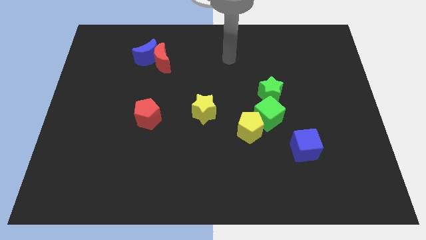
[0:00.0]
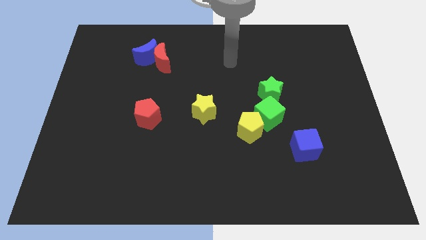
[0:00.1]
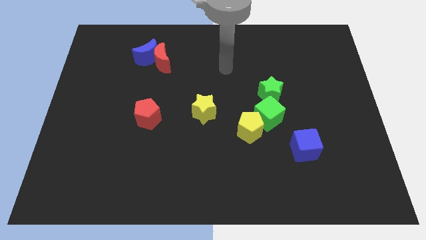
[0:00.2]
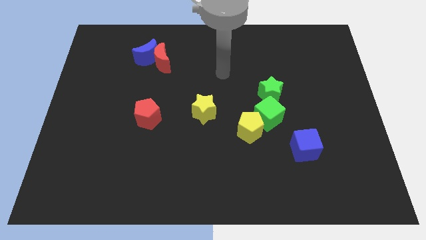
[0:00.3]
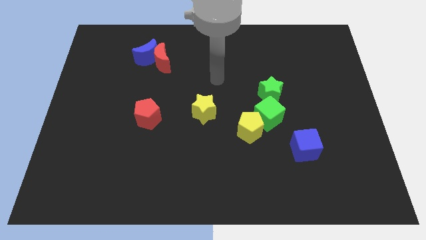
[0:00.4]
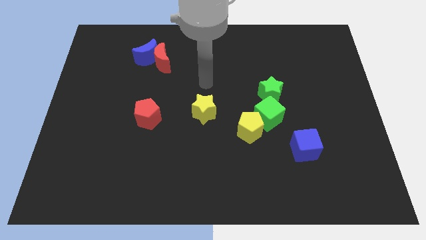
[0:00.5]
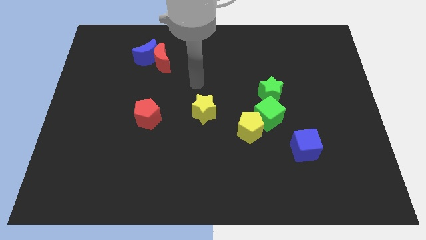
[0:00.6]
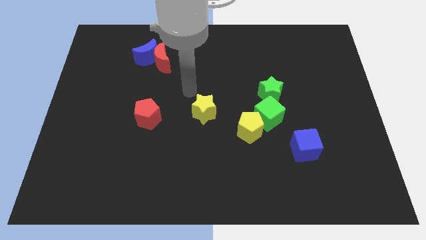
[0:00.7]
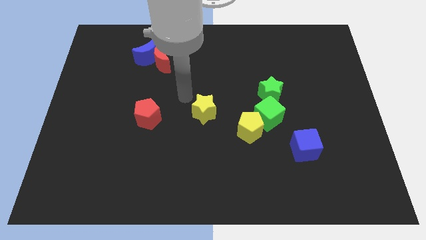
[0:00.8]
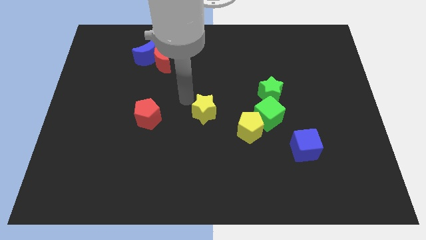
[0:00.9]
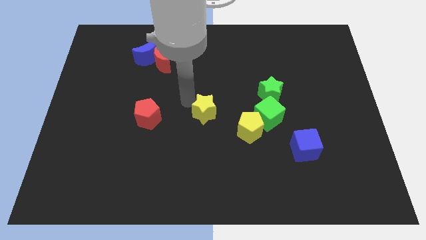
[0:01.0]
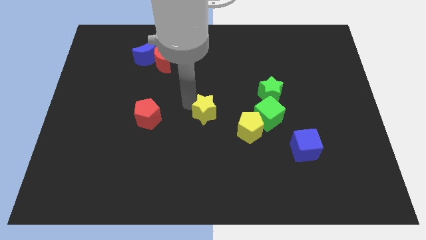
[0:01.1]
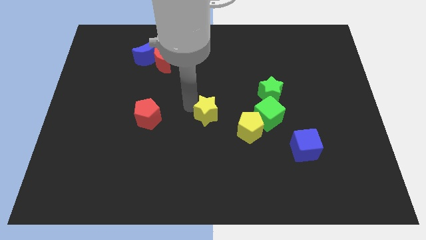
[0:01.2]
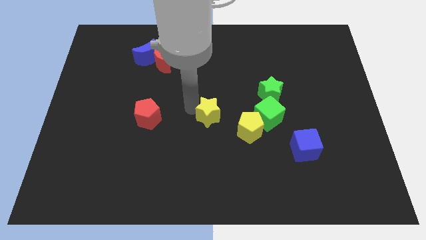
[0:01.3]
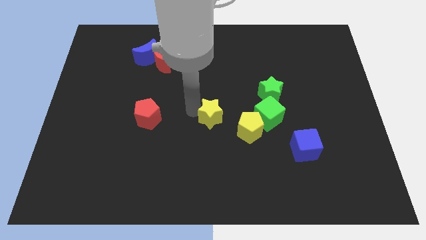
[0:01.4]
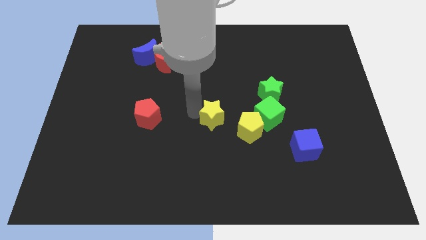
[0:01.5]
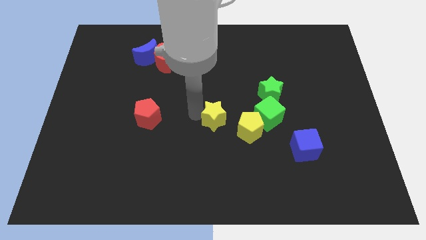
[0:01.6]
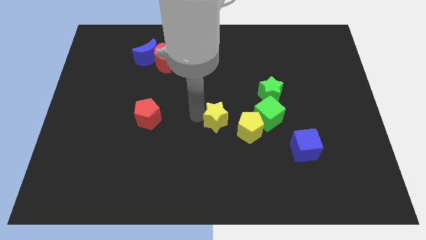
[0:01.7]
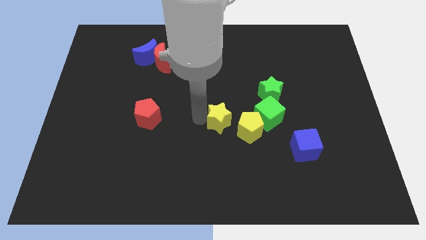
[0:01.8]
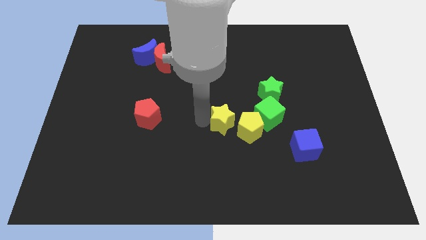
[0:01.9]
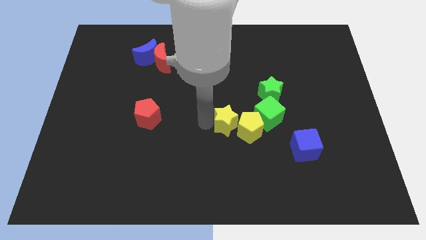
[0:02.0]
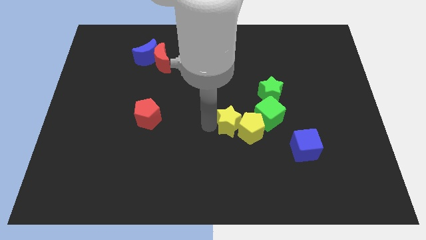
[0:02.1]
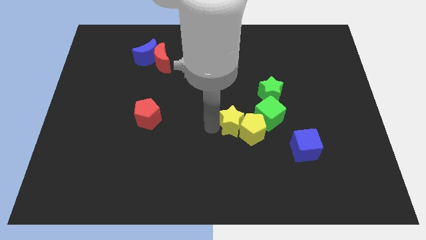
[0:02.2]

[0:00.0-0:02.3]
slightly push the yellow star down and then to the right

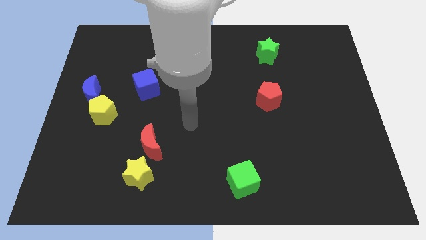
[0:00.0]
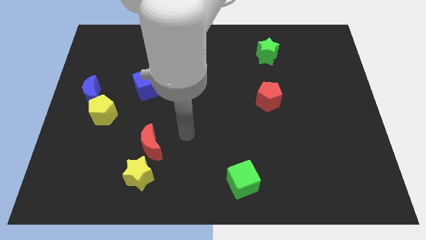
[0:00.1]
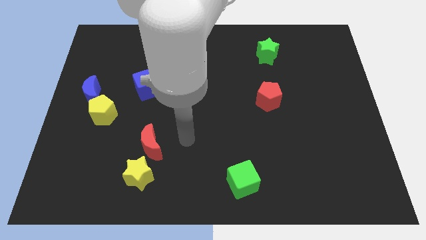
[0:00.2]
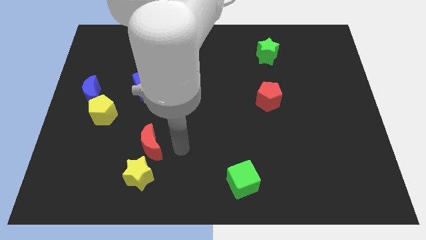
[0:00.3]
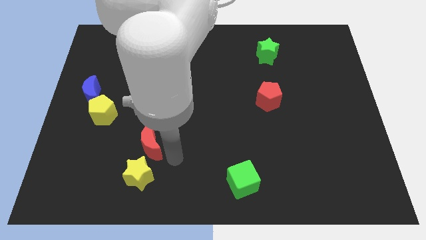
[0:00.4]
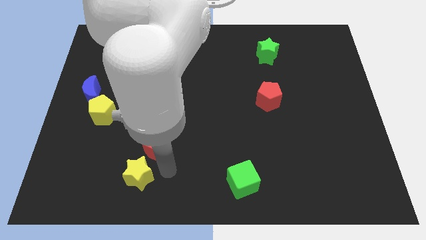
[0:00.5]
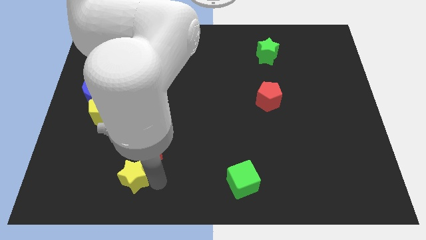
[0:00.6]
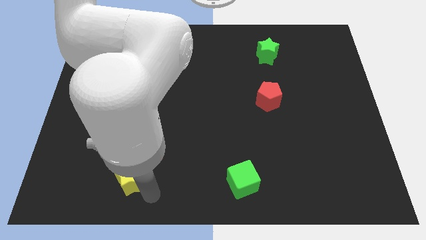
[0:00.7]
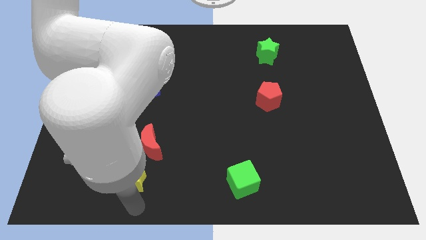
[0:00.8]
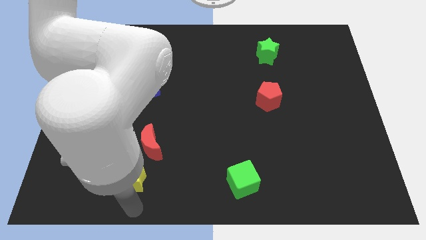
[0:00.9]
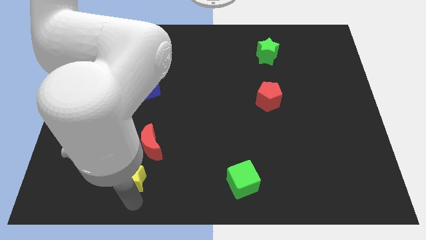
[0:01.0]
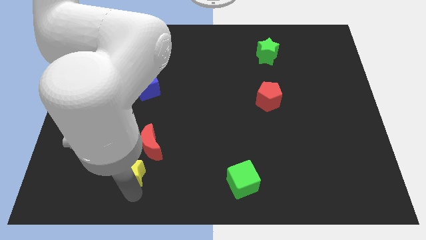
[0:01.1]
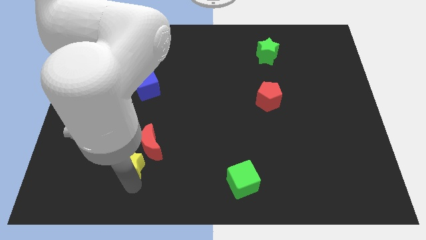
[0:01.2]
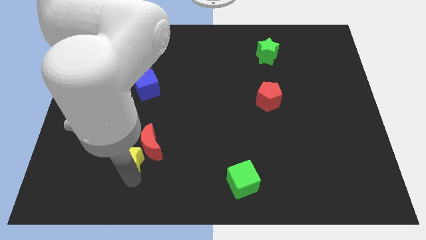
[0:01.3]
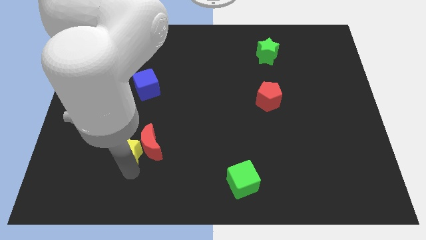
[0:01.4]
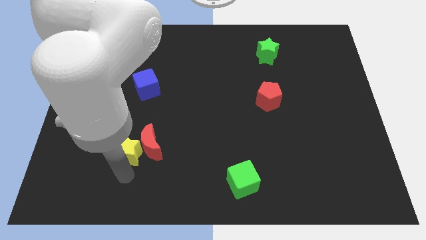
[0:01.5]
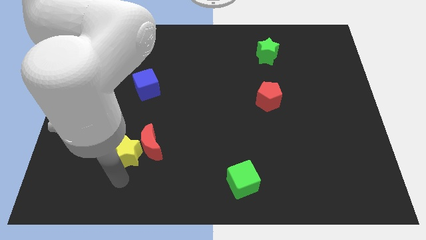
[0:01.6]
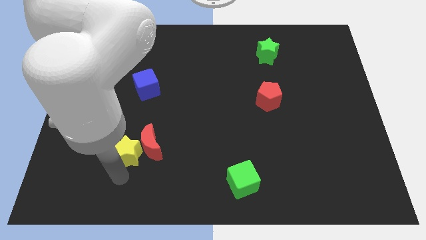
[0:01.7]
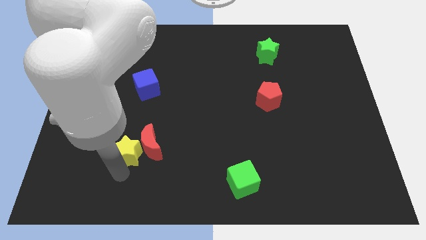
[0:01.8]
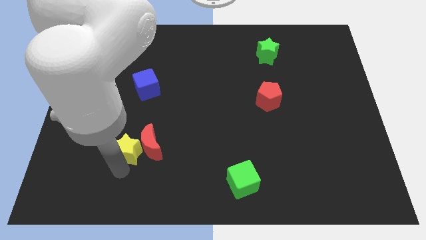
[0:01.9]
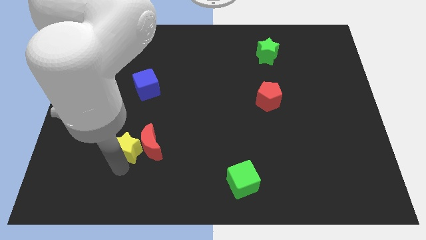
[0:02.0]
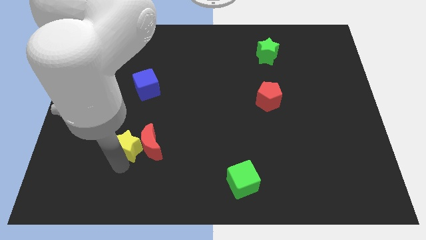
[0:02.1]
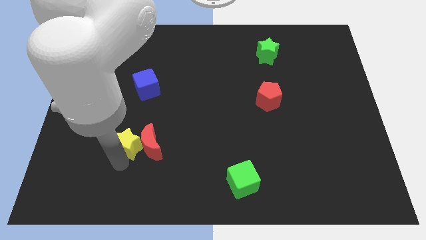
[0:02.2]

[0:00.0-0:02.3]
slide the yellow star up a little

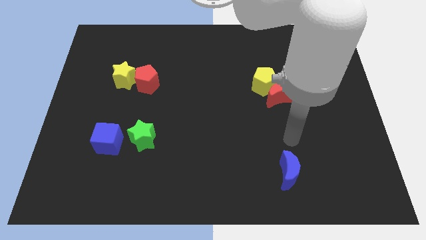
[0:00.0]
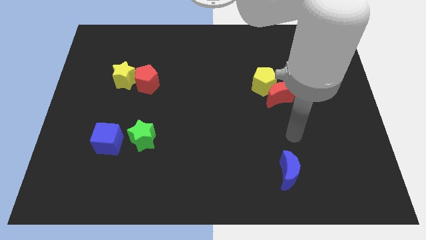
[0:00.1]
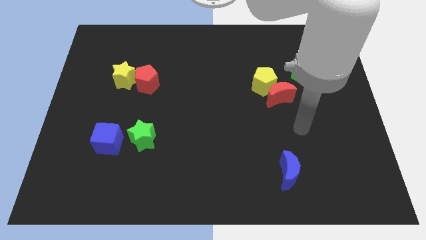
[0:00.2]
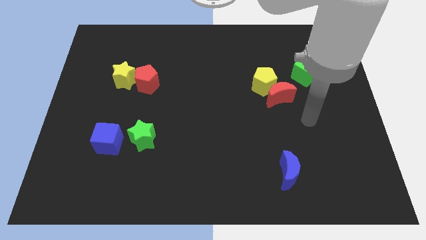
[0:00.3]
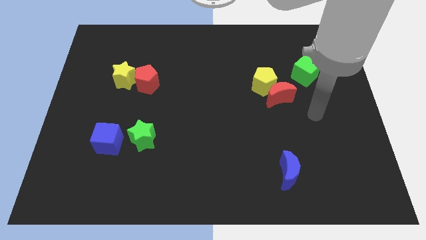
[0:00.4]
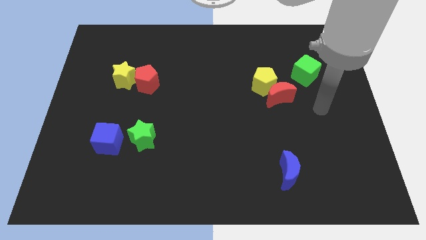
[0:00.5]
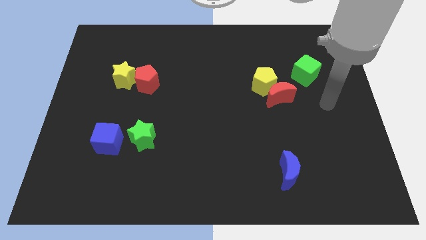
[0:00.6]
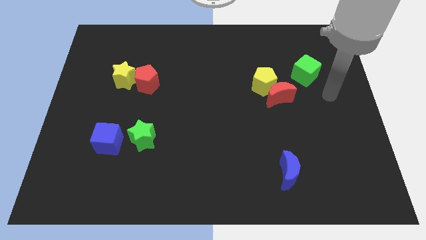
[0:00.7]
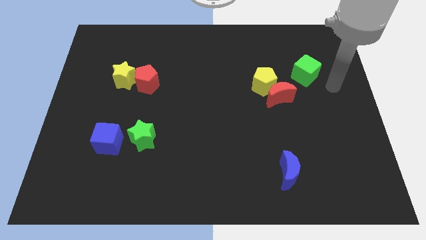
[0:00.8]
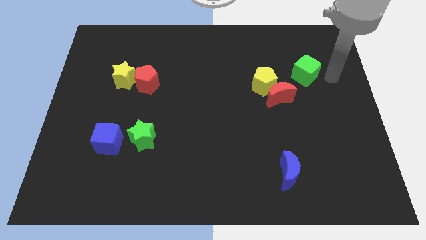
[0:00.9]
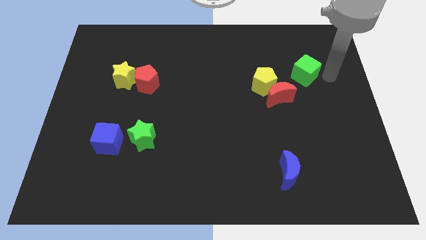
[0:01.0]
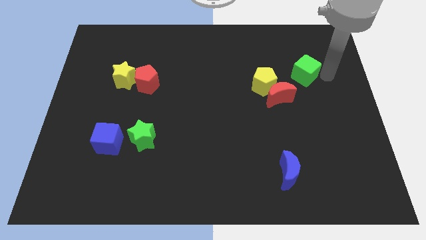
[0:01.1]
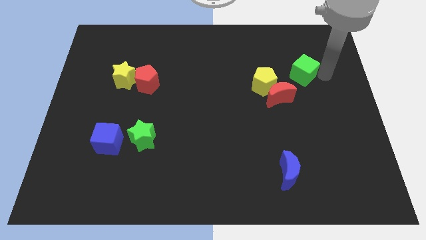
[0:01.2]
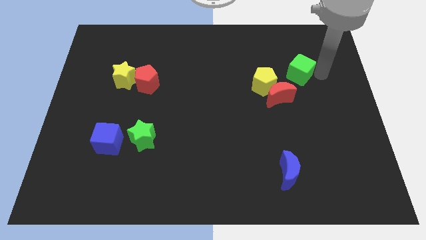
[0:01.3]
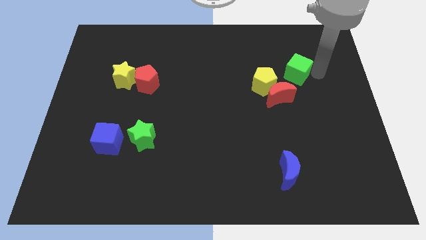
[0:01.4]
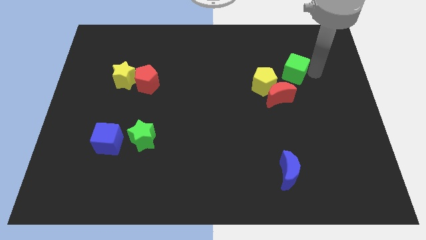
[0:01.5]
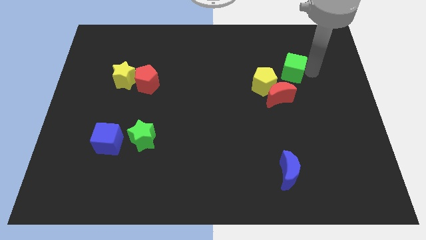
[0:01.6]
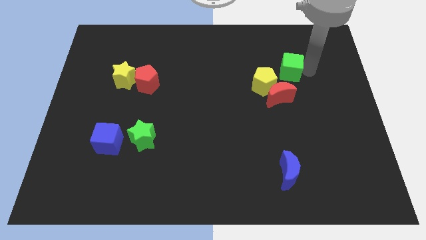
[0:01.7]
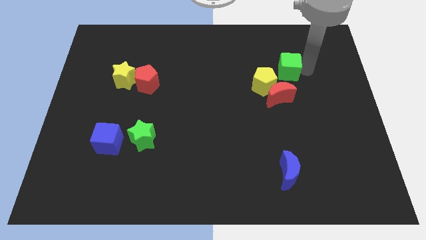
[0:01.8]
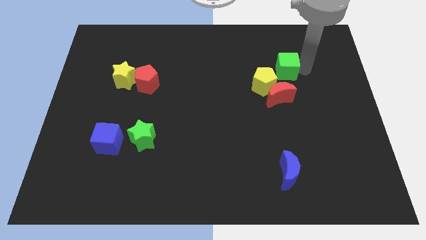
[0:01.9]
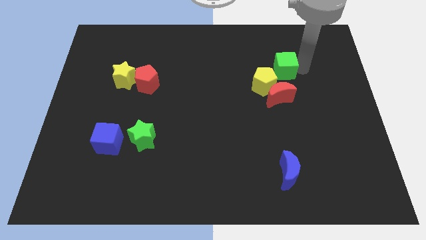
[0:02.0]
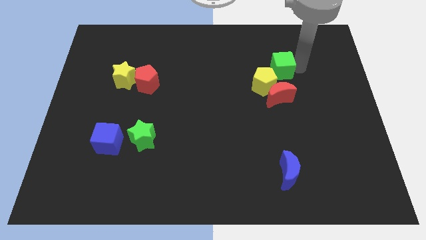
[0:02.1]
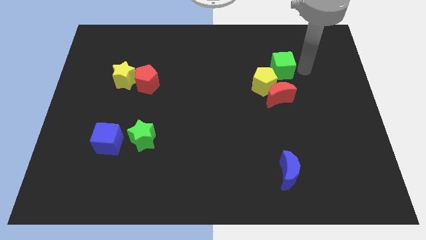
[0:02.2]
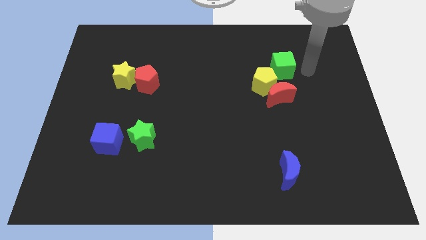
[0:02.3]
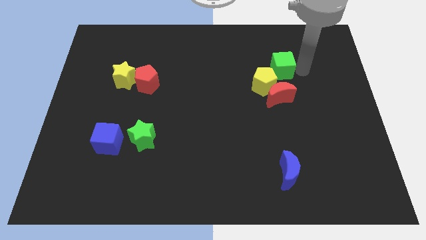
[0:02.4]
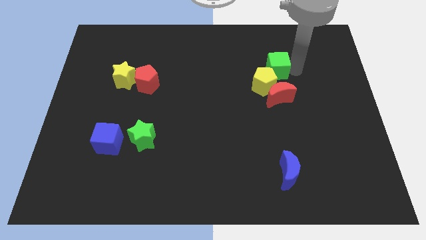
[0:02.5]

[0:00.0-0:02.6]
push the green cube to the left slightly

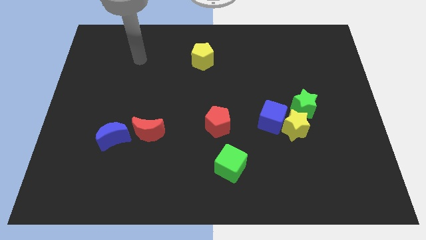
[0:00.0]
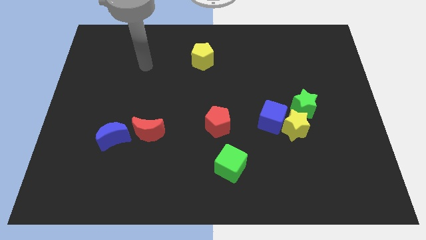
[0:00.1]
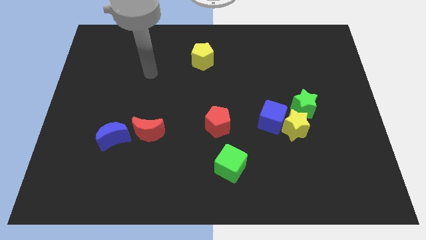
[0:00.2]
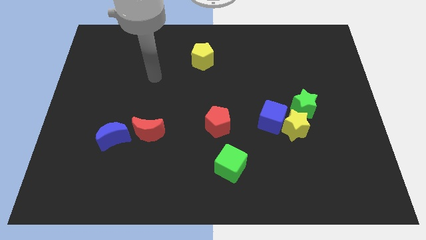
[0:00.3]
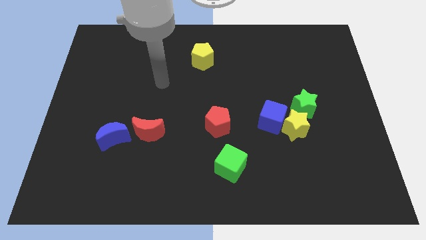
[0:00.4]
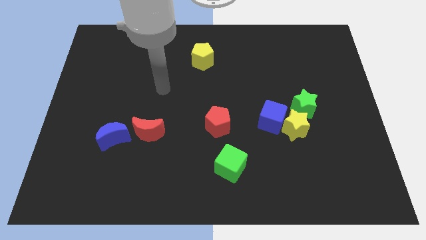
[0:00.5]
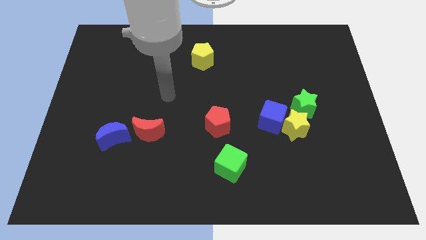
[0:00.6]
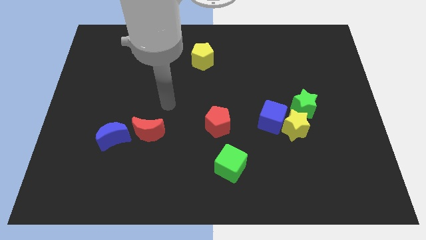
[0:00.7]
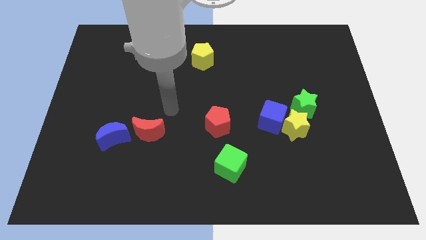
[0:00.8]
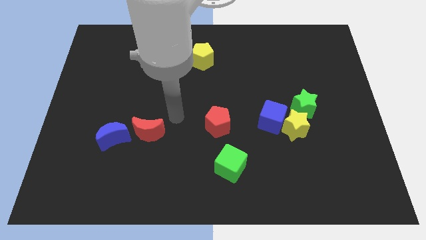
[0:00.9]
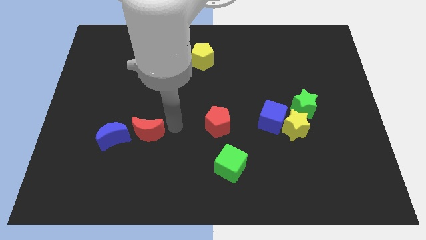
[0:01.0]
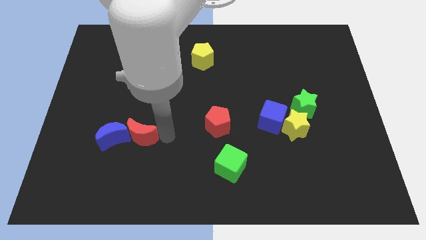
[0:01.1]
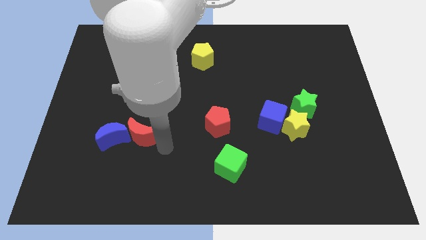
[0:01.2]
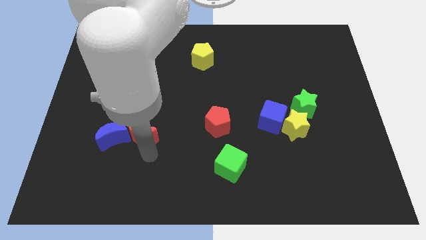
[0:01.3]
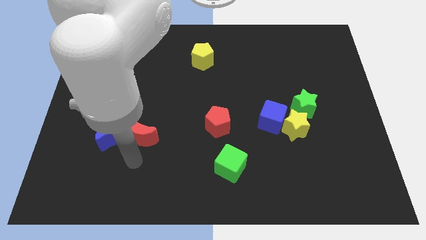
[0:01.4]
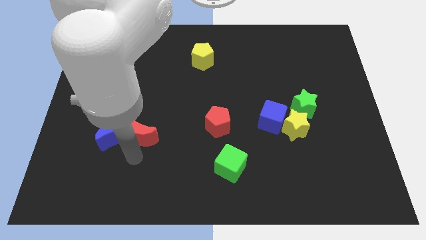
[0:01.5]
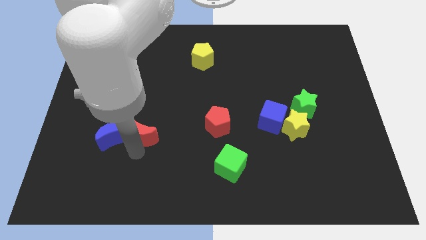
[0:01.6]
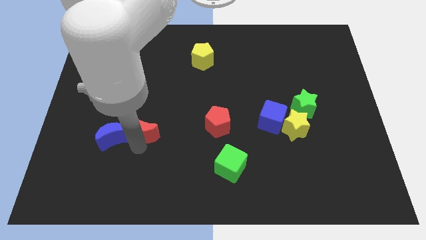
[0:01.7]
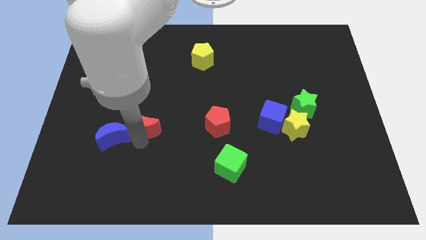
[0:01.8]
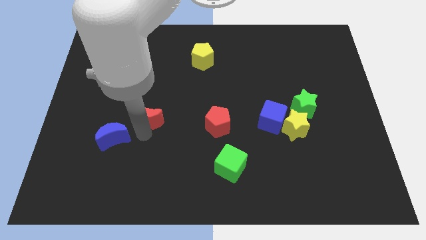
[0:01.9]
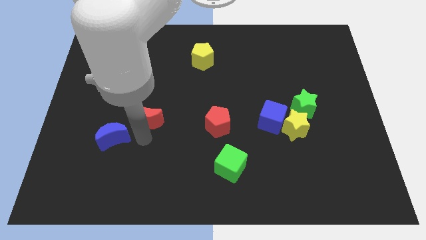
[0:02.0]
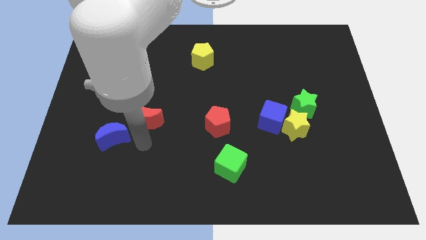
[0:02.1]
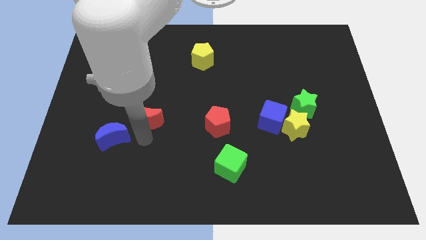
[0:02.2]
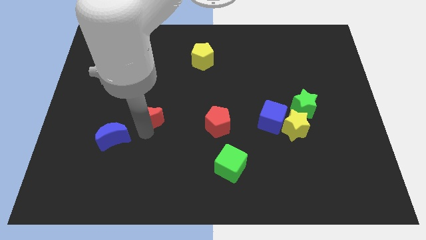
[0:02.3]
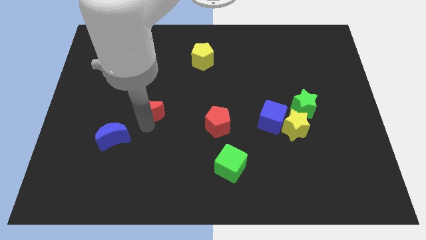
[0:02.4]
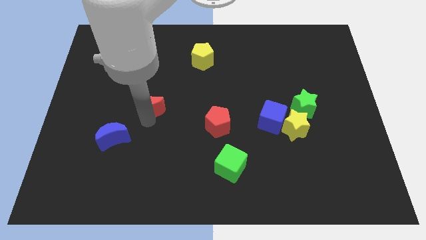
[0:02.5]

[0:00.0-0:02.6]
slightly slide the red moon up
